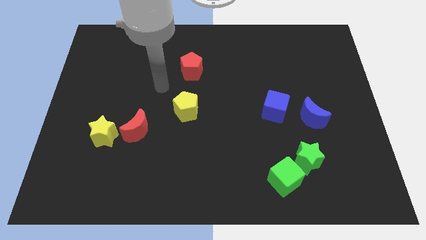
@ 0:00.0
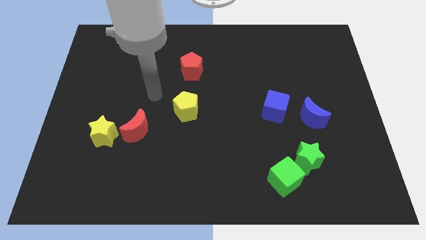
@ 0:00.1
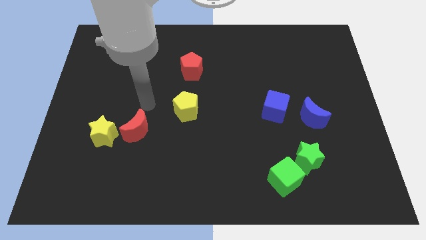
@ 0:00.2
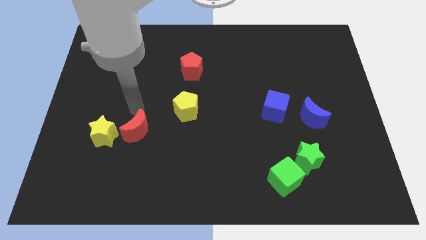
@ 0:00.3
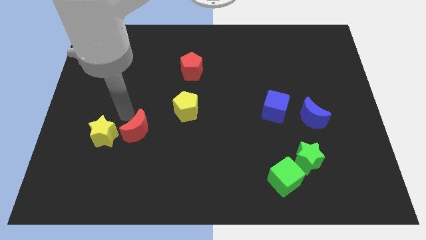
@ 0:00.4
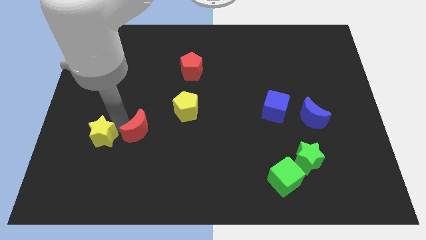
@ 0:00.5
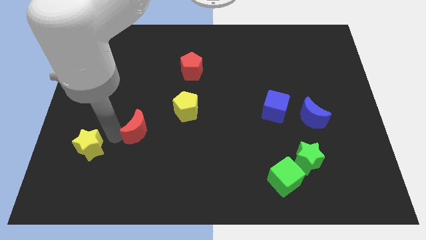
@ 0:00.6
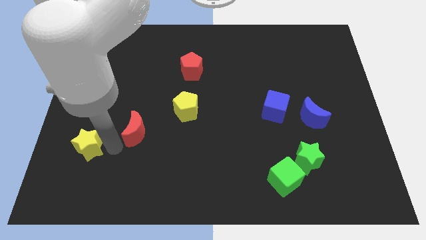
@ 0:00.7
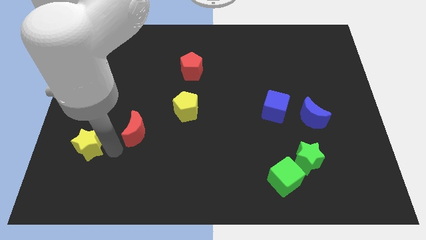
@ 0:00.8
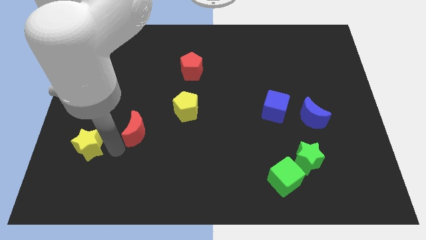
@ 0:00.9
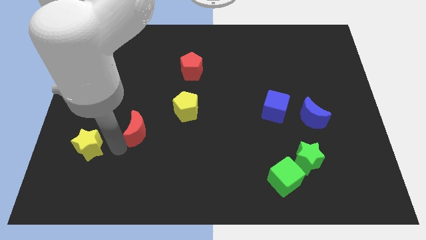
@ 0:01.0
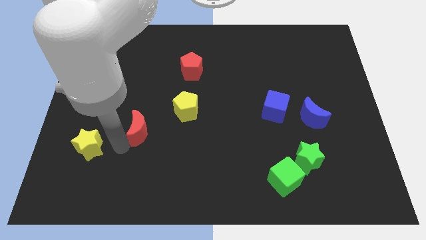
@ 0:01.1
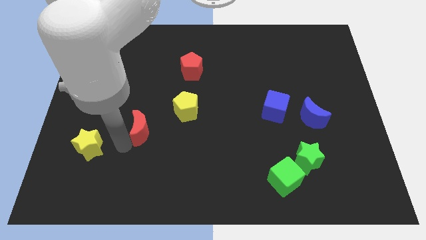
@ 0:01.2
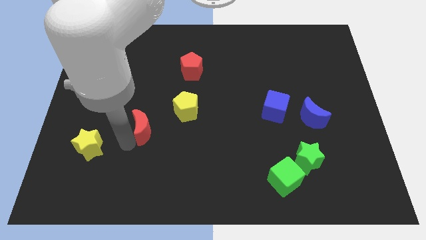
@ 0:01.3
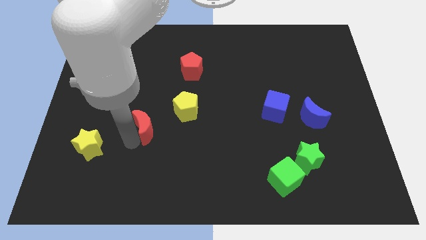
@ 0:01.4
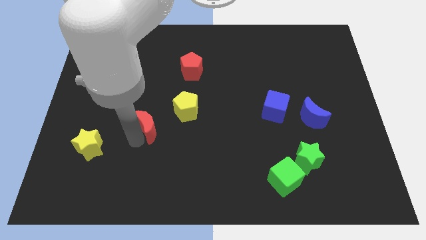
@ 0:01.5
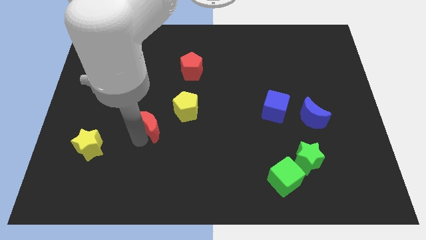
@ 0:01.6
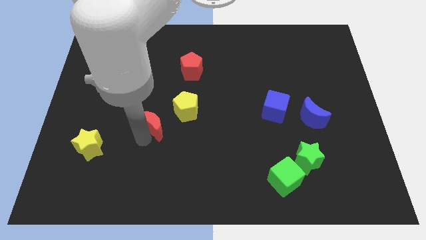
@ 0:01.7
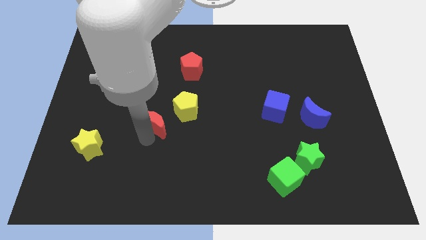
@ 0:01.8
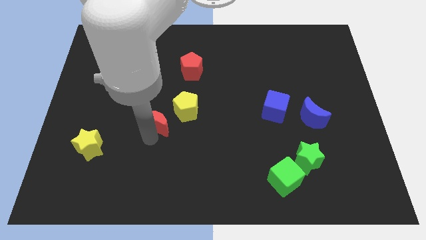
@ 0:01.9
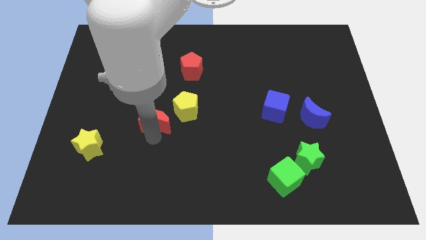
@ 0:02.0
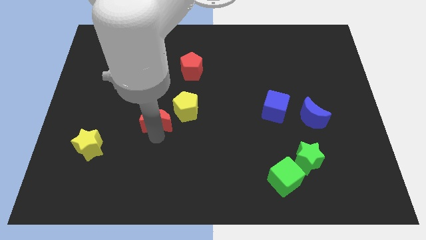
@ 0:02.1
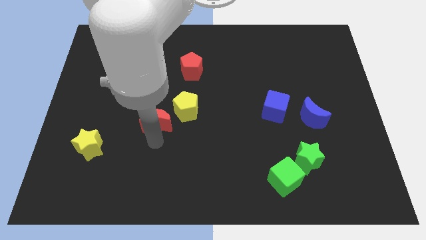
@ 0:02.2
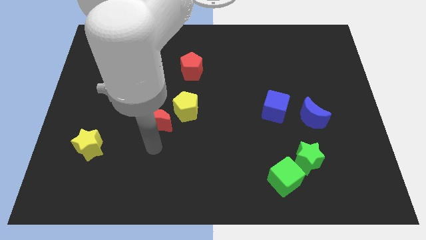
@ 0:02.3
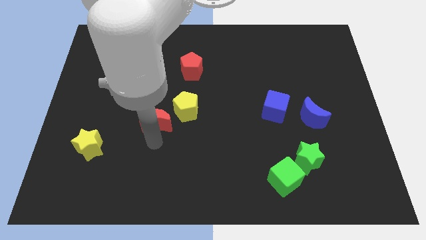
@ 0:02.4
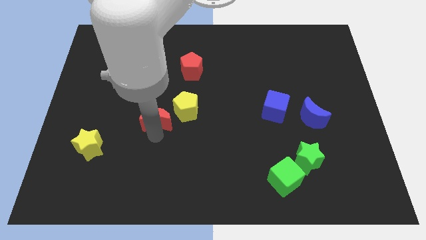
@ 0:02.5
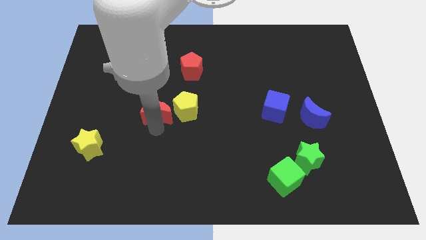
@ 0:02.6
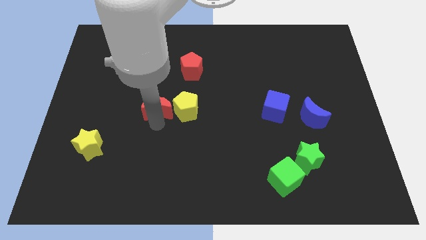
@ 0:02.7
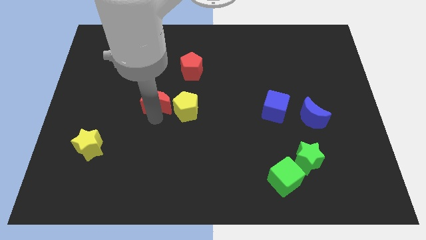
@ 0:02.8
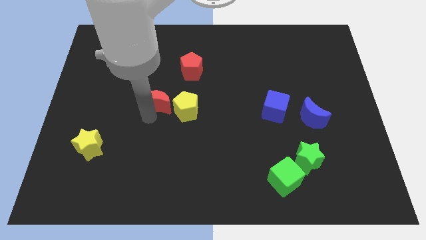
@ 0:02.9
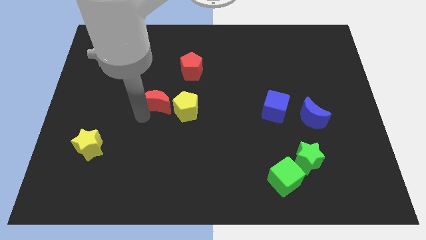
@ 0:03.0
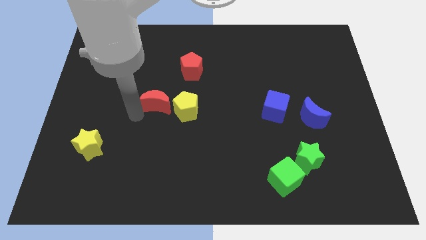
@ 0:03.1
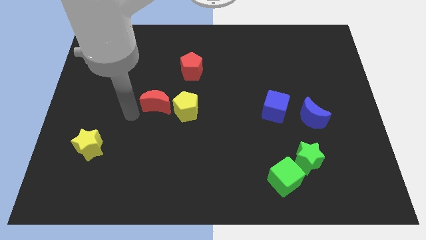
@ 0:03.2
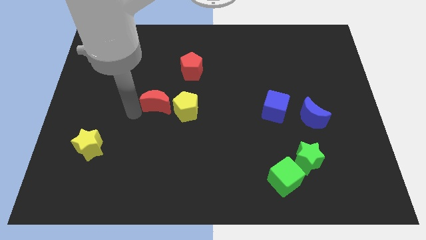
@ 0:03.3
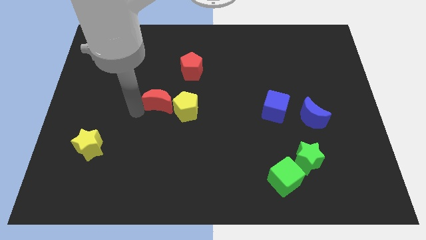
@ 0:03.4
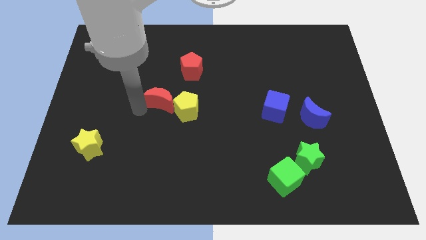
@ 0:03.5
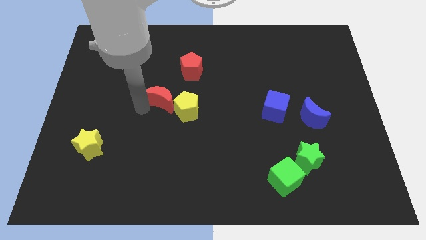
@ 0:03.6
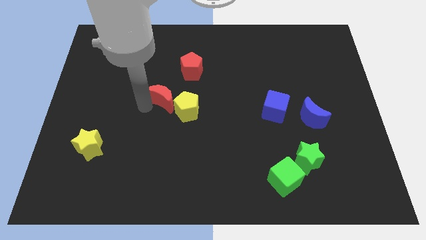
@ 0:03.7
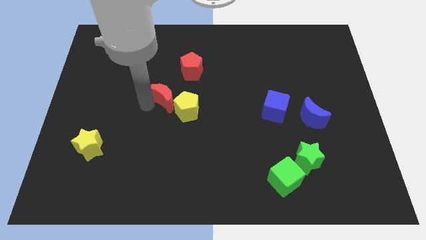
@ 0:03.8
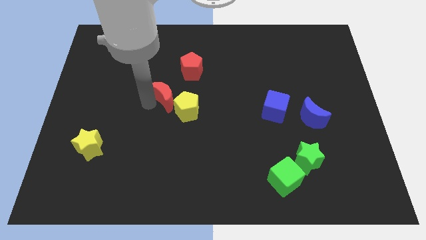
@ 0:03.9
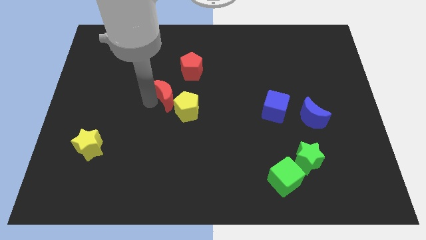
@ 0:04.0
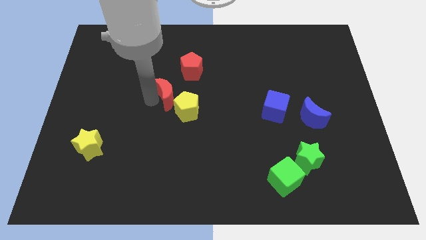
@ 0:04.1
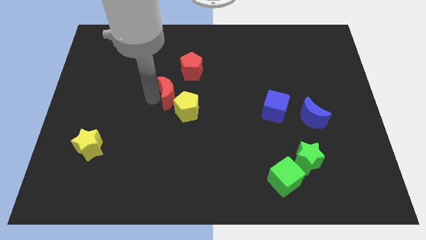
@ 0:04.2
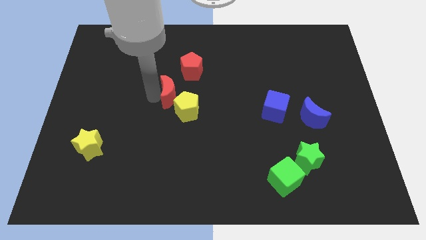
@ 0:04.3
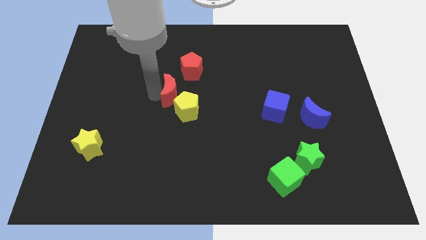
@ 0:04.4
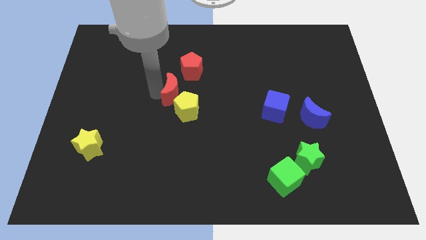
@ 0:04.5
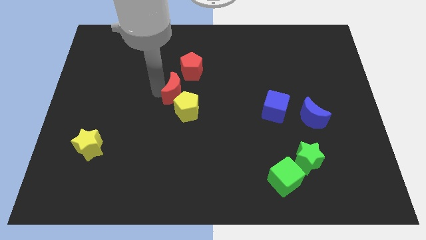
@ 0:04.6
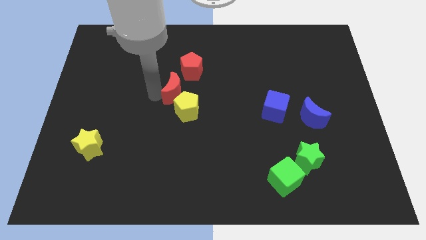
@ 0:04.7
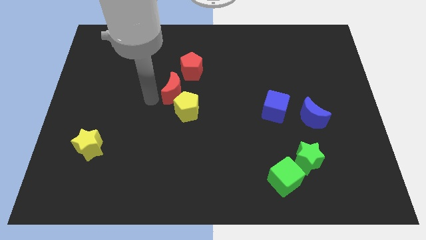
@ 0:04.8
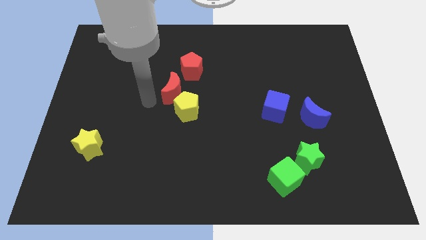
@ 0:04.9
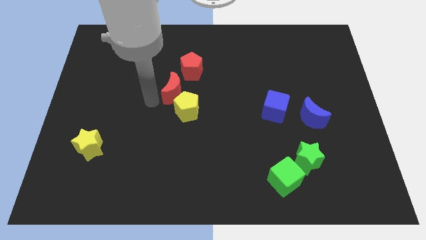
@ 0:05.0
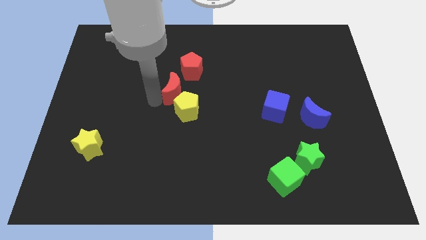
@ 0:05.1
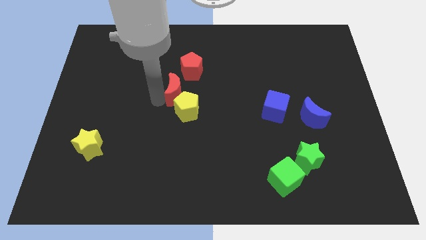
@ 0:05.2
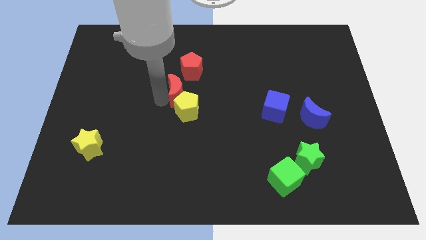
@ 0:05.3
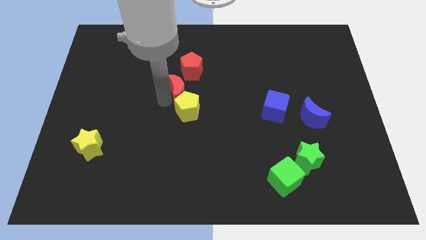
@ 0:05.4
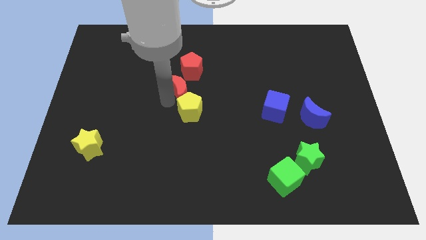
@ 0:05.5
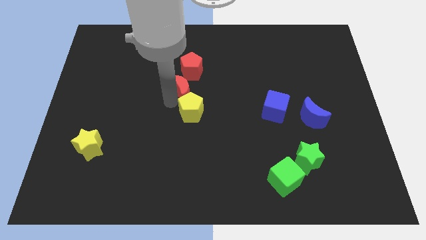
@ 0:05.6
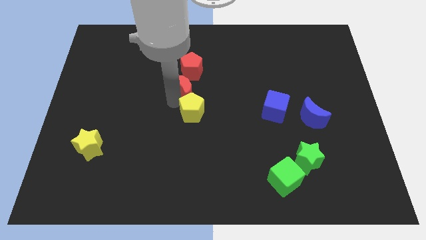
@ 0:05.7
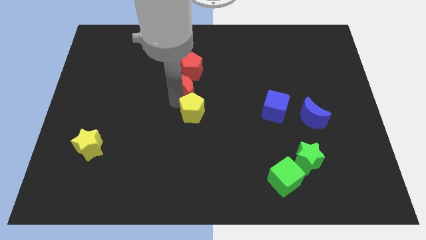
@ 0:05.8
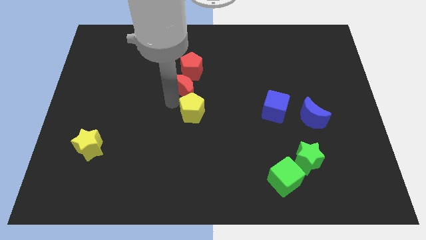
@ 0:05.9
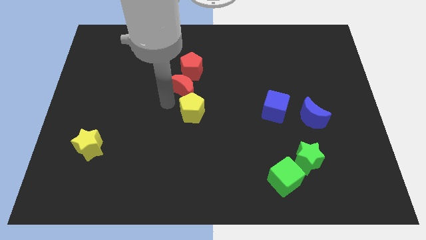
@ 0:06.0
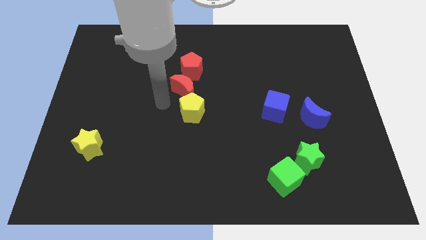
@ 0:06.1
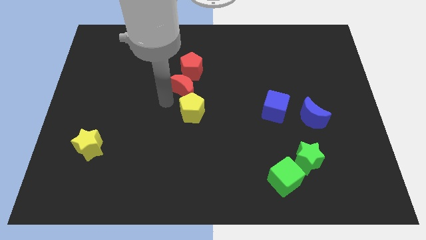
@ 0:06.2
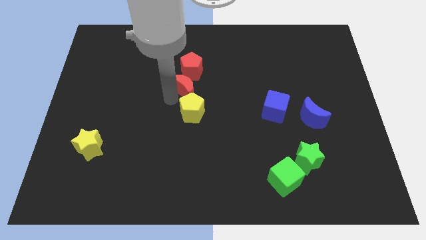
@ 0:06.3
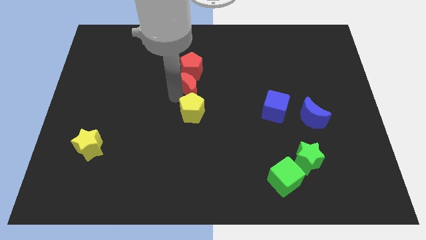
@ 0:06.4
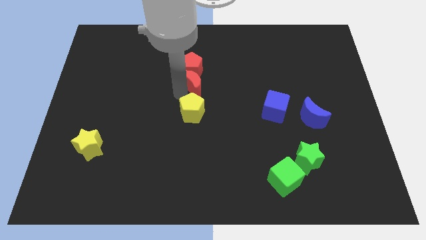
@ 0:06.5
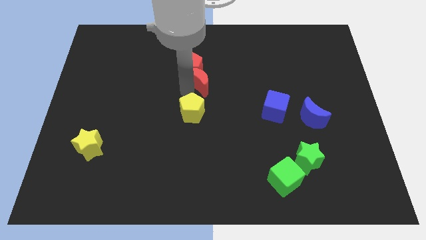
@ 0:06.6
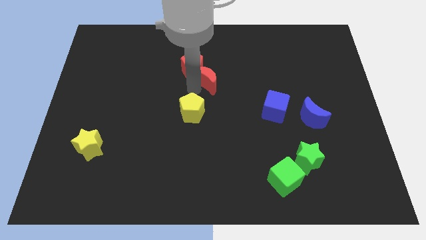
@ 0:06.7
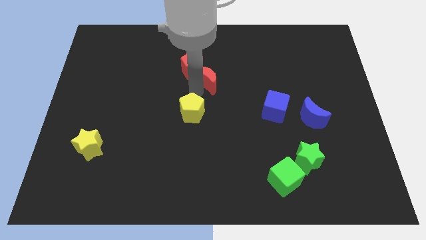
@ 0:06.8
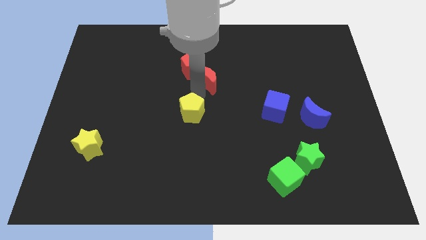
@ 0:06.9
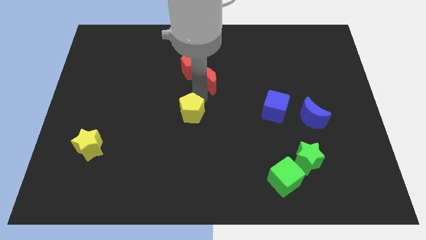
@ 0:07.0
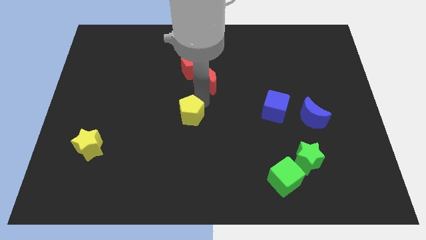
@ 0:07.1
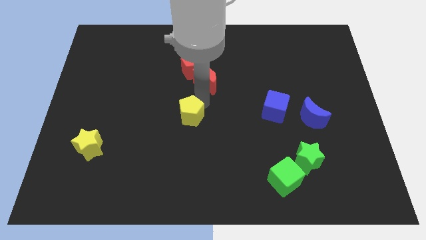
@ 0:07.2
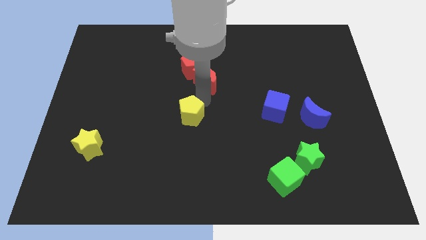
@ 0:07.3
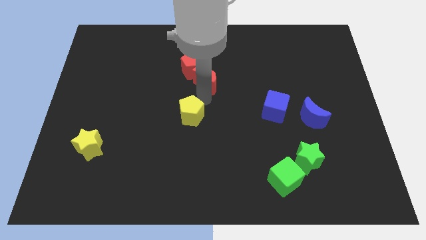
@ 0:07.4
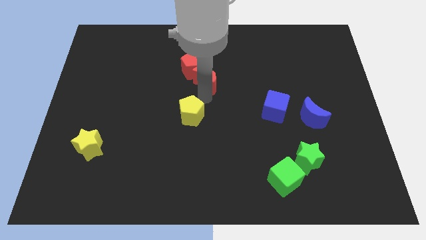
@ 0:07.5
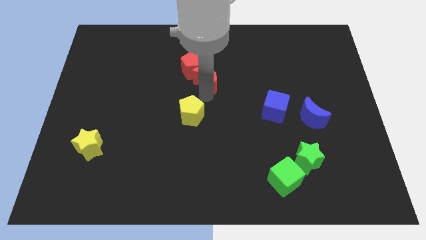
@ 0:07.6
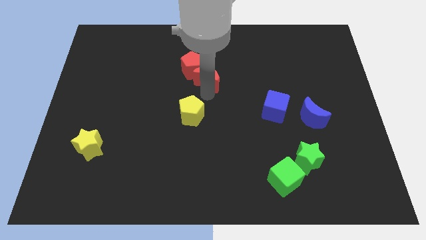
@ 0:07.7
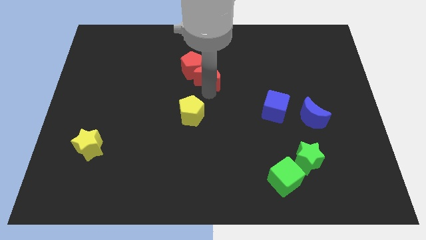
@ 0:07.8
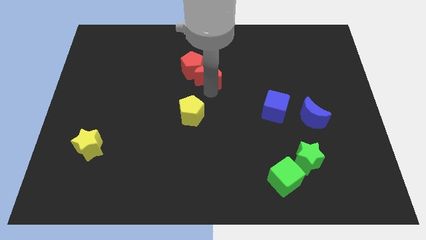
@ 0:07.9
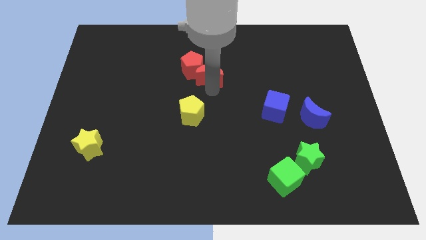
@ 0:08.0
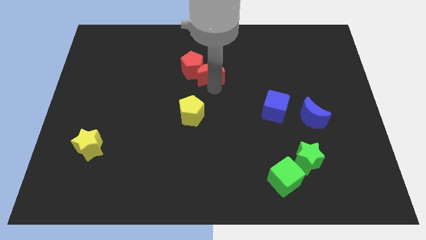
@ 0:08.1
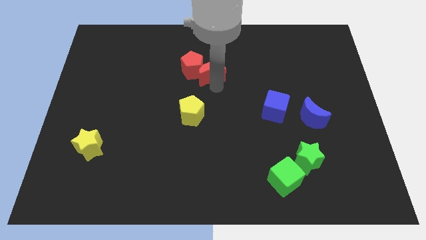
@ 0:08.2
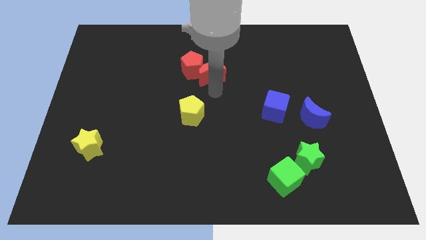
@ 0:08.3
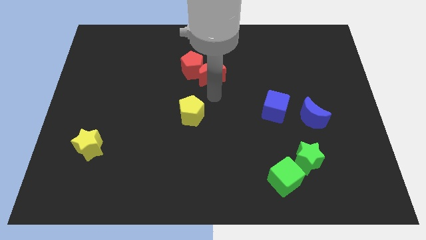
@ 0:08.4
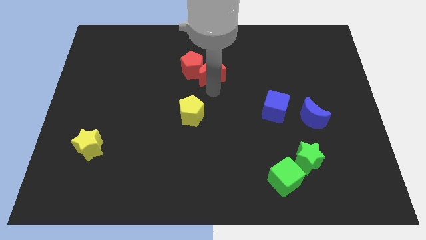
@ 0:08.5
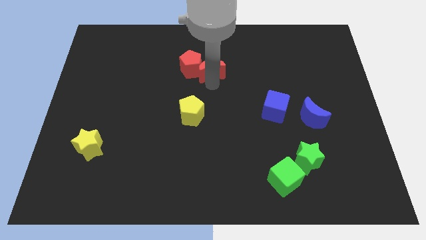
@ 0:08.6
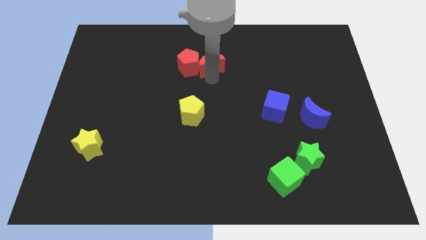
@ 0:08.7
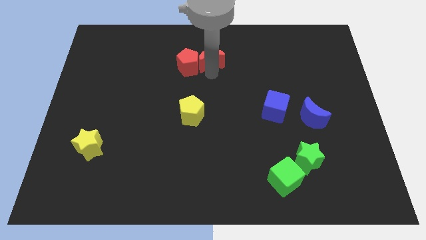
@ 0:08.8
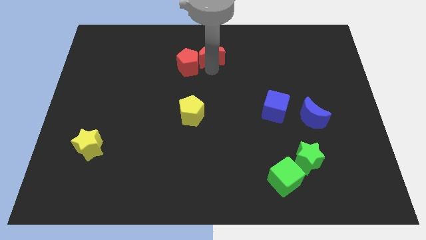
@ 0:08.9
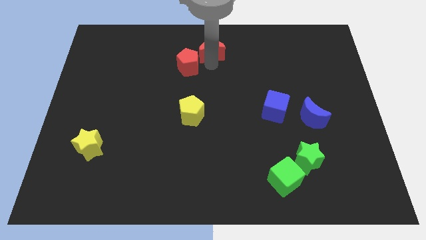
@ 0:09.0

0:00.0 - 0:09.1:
put the red moon to the top side
